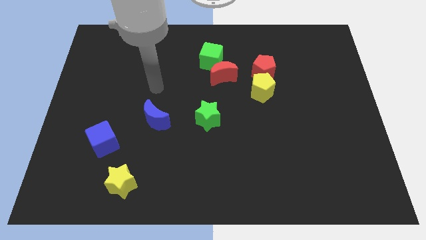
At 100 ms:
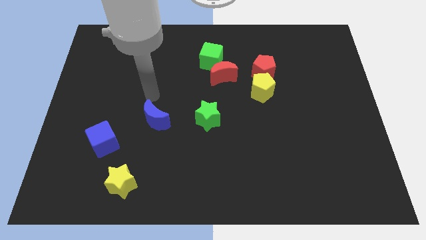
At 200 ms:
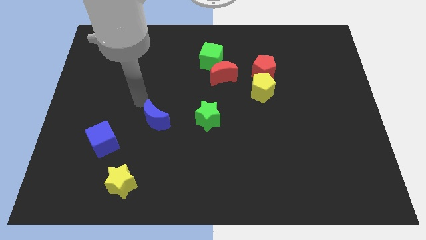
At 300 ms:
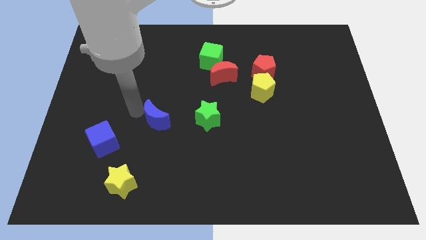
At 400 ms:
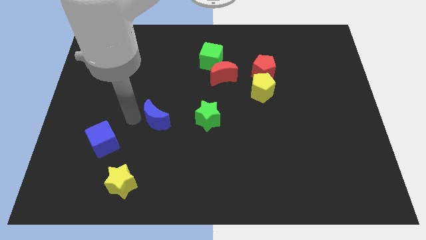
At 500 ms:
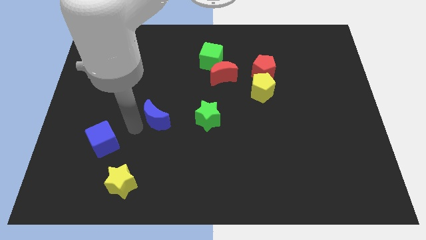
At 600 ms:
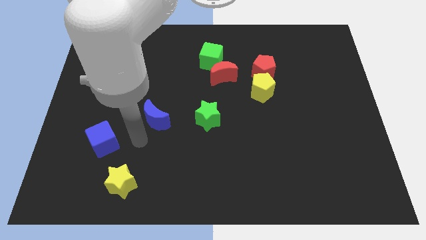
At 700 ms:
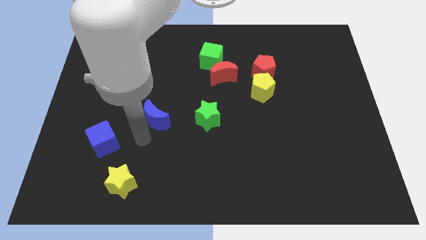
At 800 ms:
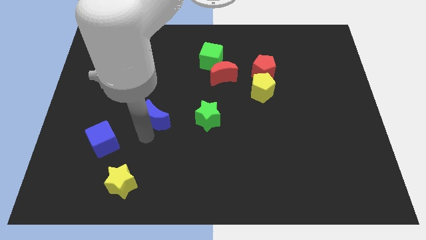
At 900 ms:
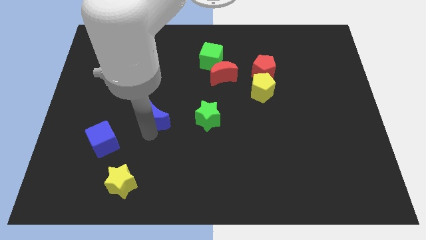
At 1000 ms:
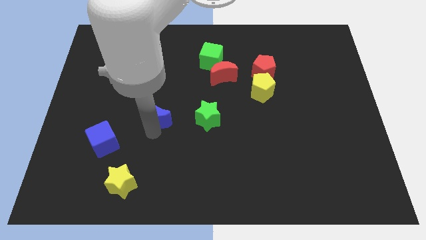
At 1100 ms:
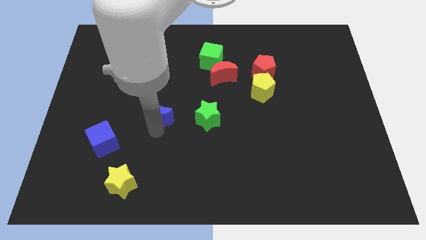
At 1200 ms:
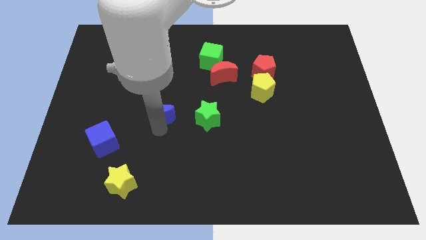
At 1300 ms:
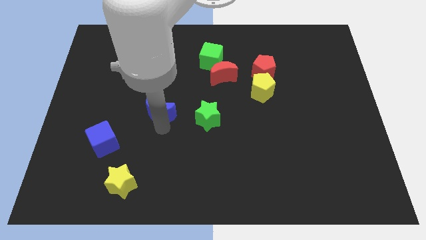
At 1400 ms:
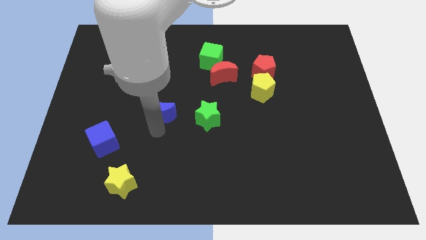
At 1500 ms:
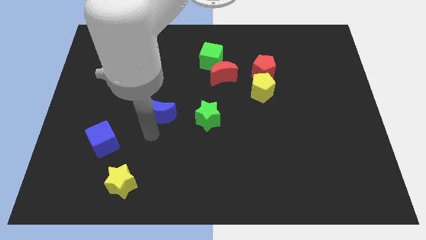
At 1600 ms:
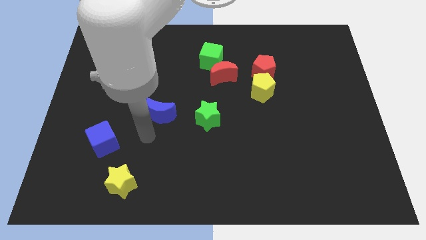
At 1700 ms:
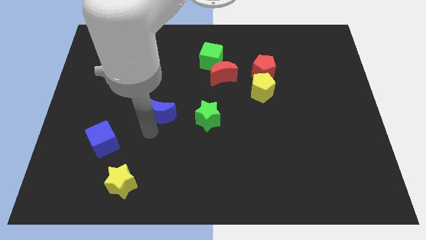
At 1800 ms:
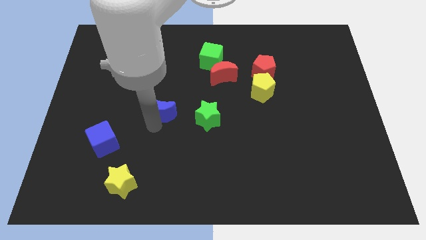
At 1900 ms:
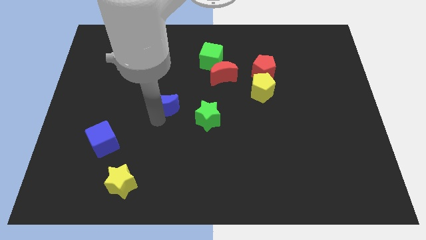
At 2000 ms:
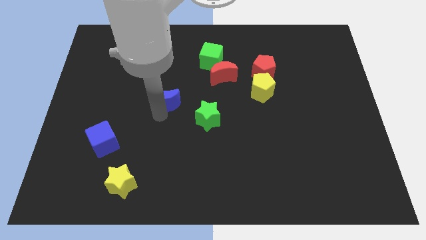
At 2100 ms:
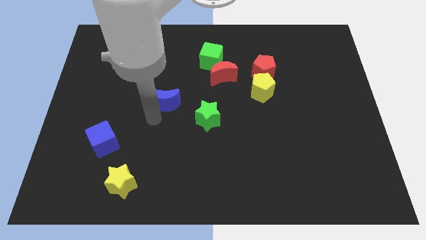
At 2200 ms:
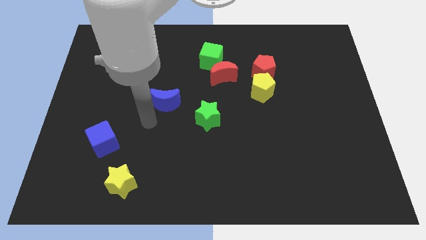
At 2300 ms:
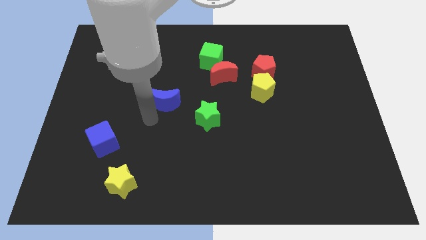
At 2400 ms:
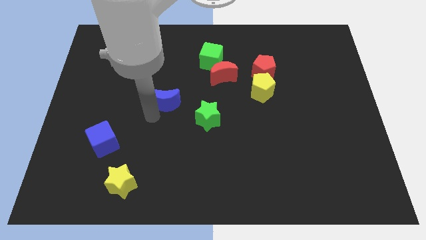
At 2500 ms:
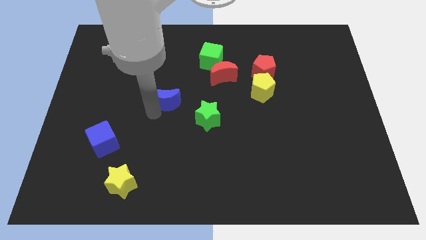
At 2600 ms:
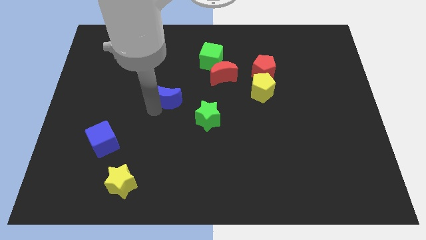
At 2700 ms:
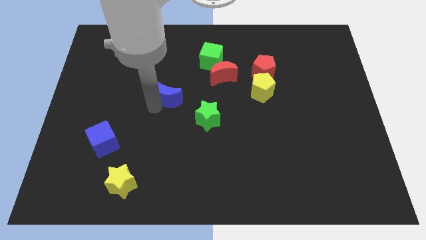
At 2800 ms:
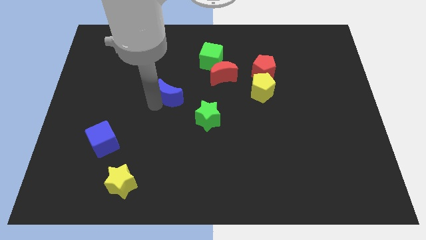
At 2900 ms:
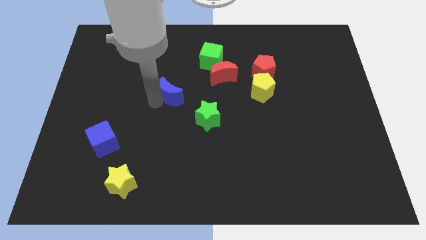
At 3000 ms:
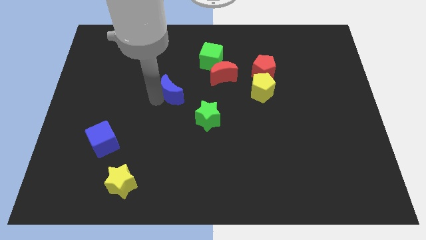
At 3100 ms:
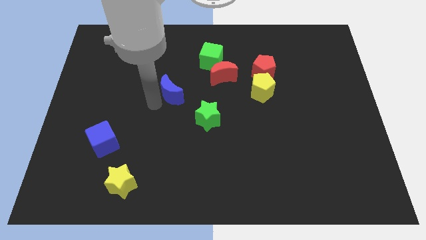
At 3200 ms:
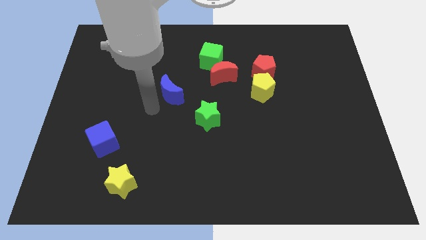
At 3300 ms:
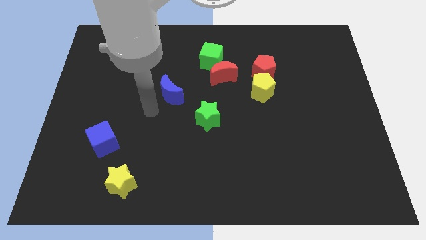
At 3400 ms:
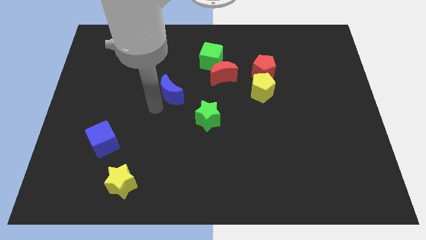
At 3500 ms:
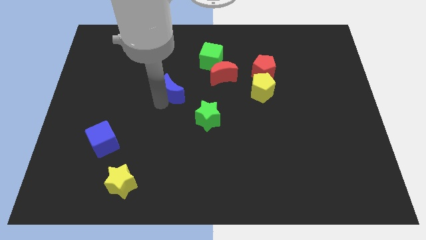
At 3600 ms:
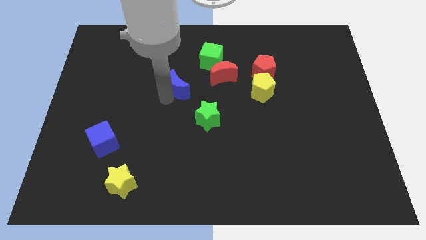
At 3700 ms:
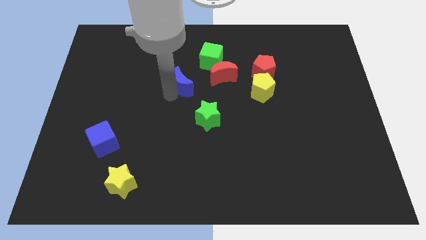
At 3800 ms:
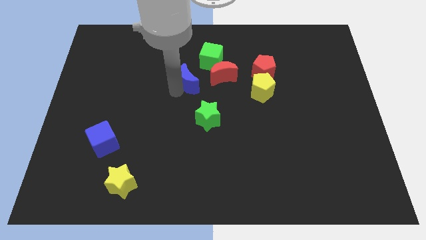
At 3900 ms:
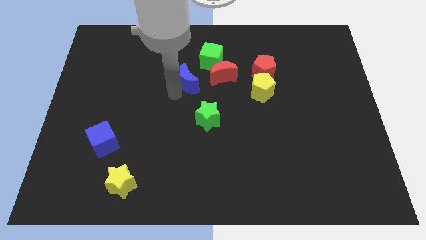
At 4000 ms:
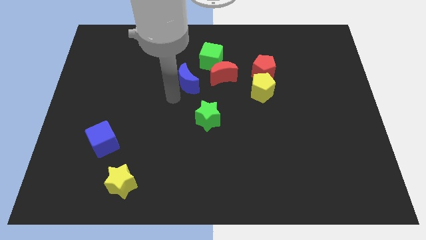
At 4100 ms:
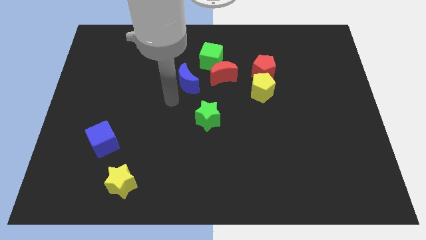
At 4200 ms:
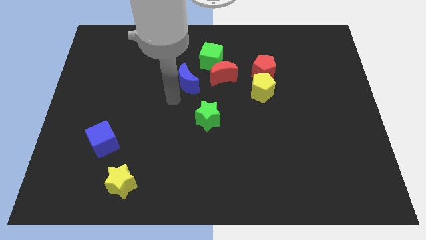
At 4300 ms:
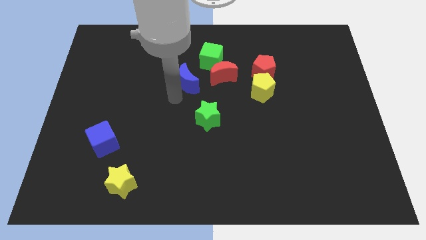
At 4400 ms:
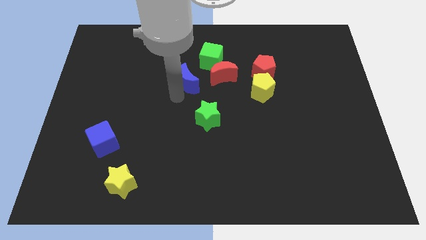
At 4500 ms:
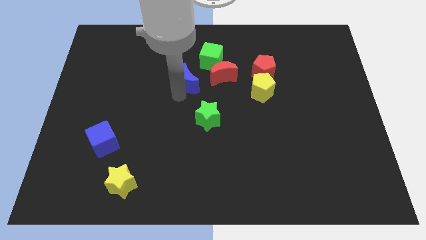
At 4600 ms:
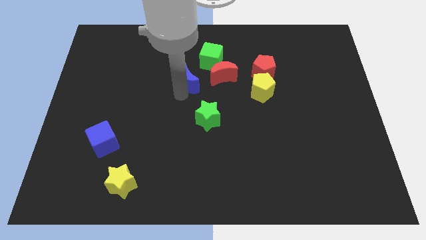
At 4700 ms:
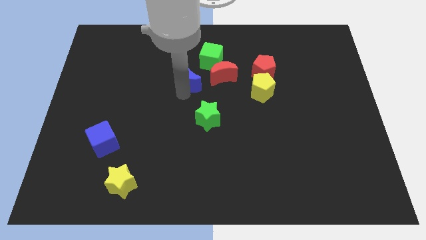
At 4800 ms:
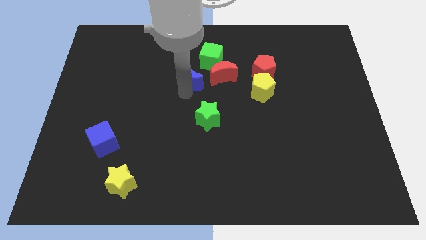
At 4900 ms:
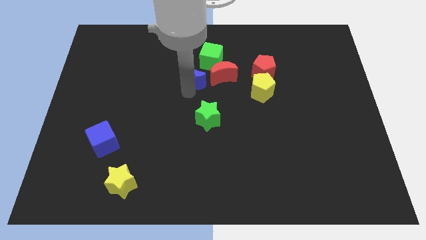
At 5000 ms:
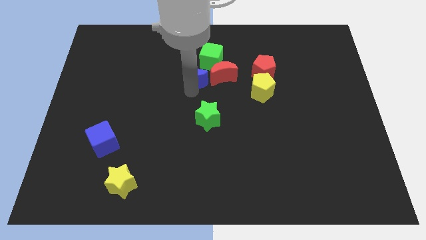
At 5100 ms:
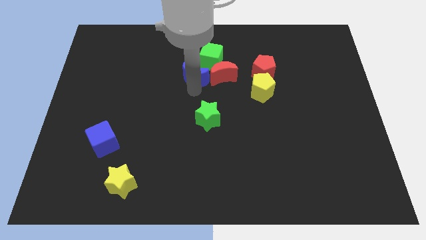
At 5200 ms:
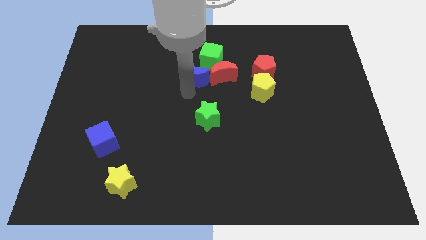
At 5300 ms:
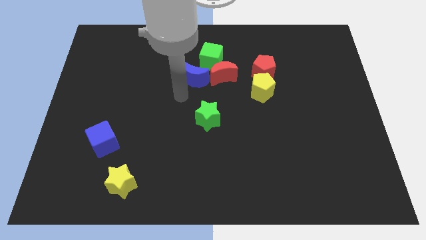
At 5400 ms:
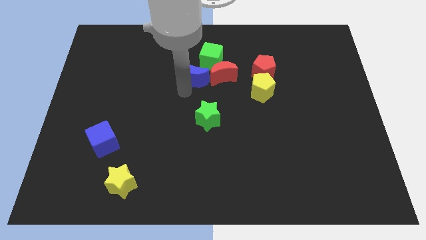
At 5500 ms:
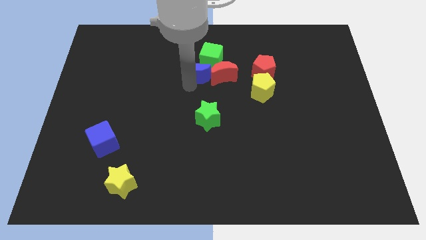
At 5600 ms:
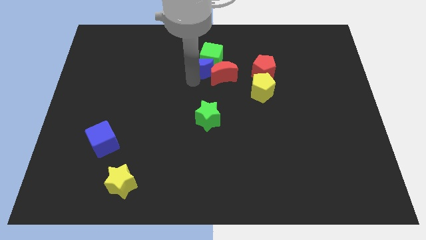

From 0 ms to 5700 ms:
move the blue moon to the green cube

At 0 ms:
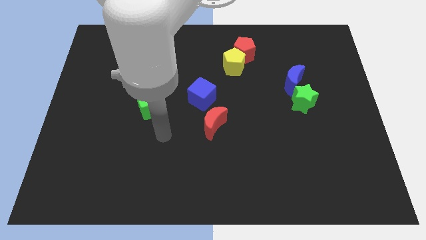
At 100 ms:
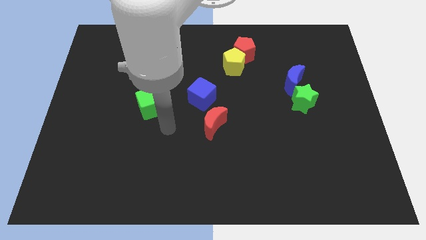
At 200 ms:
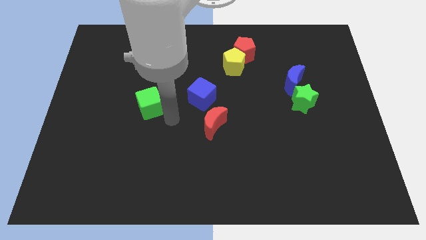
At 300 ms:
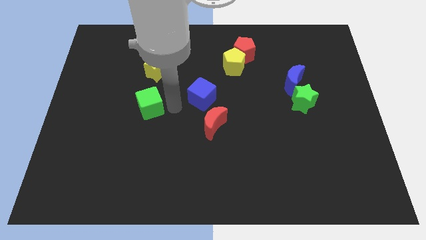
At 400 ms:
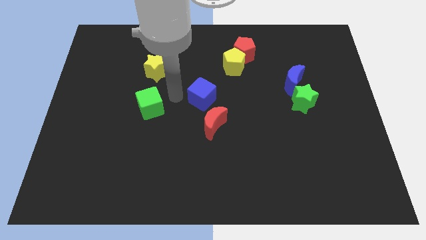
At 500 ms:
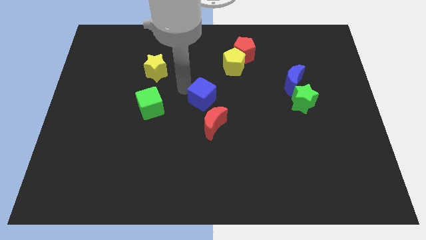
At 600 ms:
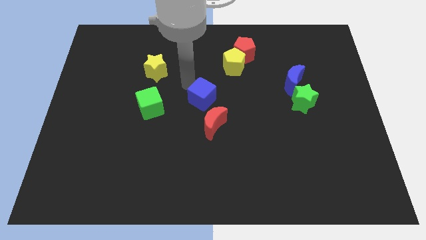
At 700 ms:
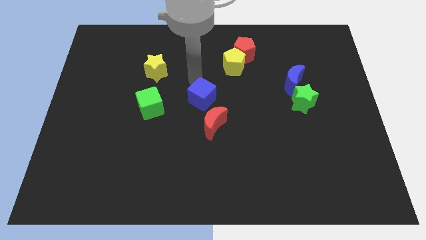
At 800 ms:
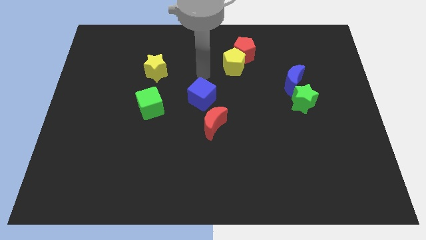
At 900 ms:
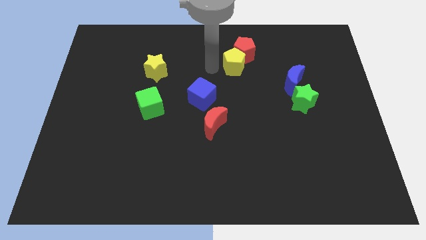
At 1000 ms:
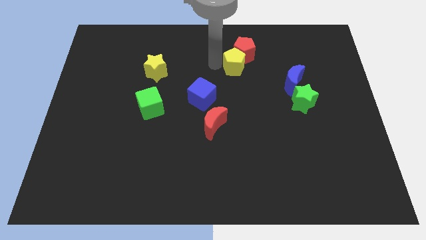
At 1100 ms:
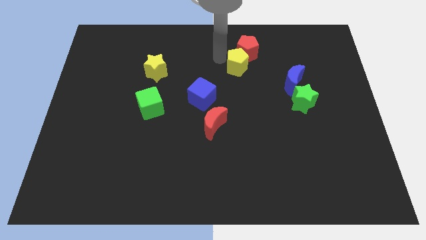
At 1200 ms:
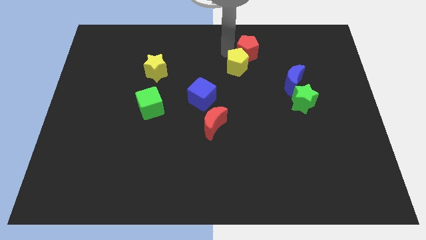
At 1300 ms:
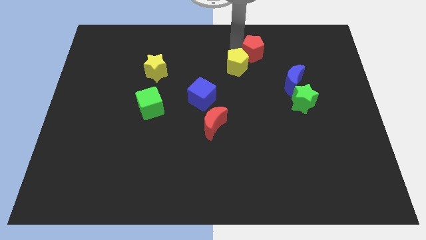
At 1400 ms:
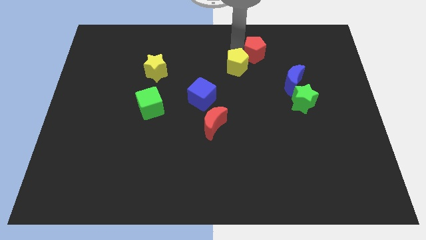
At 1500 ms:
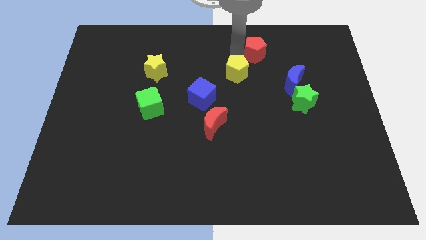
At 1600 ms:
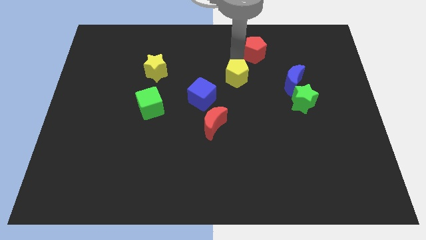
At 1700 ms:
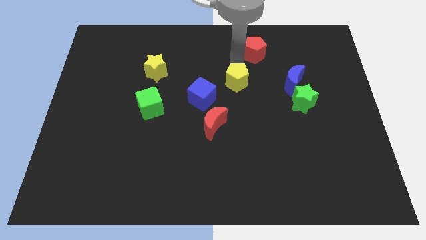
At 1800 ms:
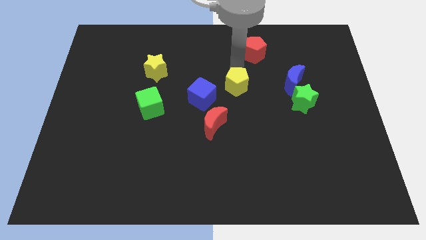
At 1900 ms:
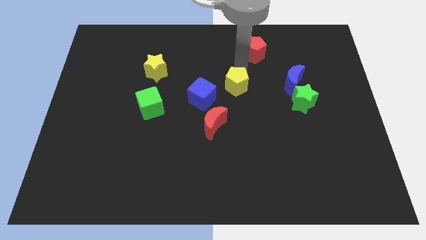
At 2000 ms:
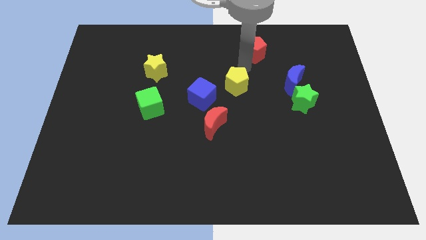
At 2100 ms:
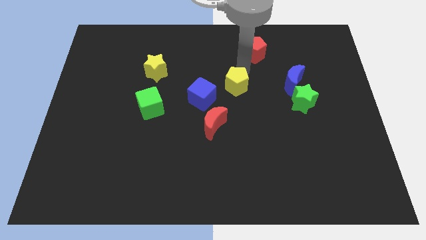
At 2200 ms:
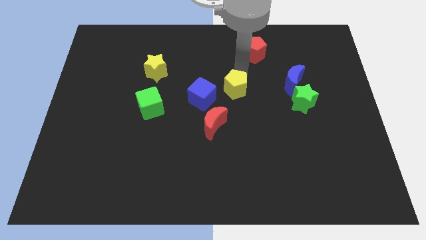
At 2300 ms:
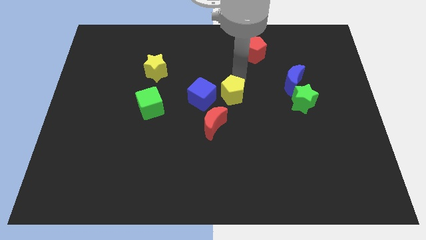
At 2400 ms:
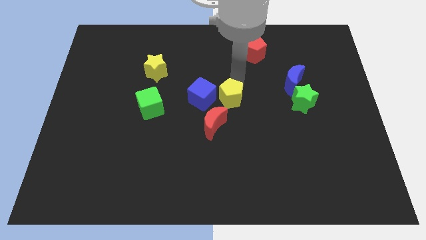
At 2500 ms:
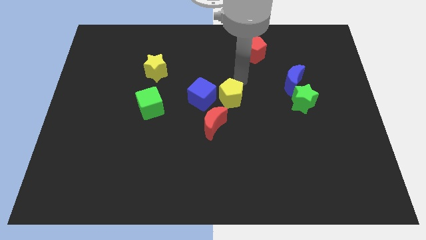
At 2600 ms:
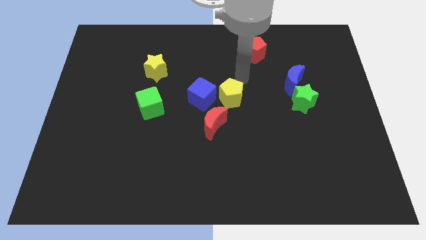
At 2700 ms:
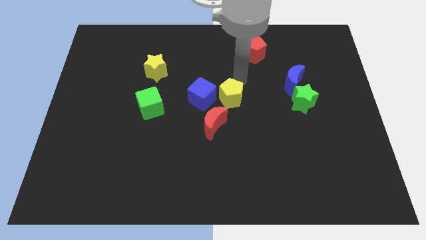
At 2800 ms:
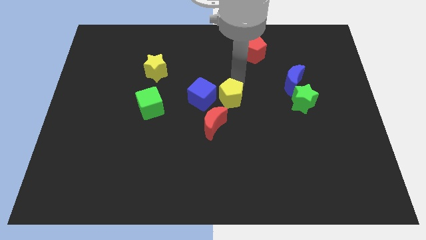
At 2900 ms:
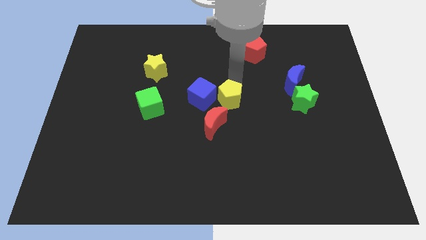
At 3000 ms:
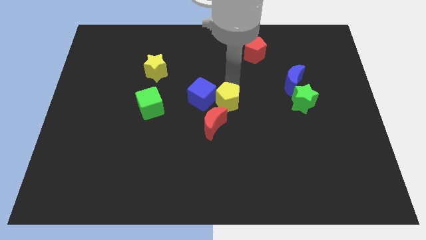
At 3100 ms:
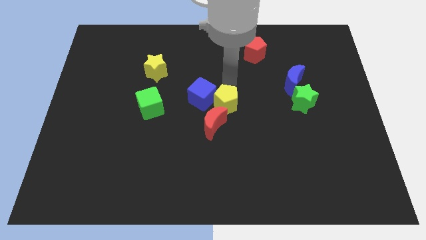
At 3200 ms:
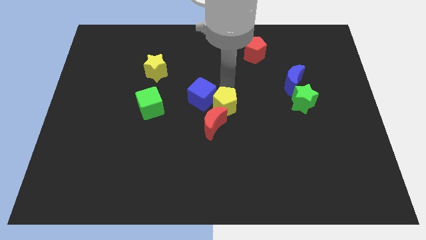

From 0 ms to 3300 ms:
put the yellow pentagon close to the red moon
